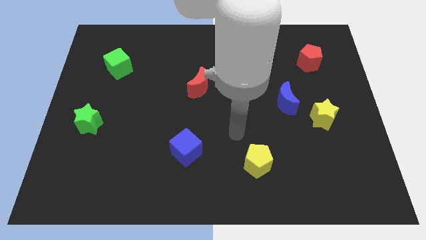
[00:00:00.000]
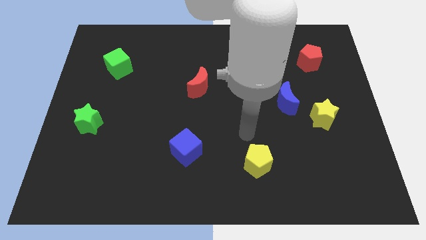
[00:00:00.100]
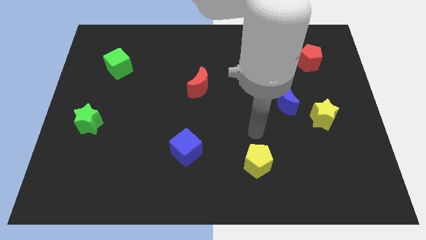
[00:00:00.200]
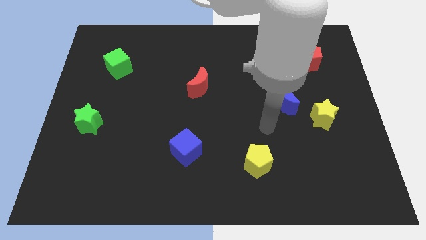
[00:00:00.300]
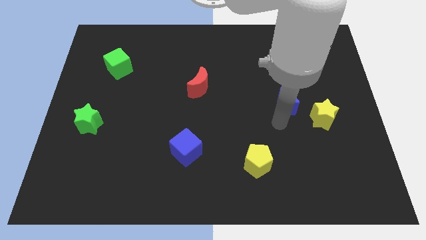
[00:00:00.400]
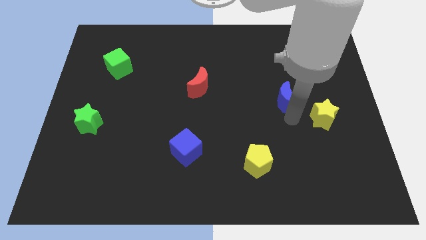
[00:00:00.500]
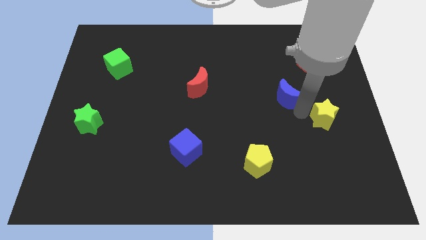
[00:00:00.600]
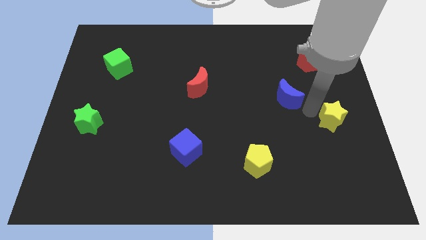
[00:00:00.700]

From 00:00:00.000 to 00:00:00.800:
move the blue moon away from the yellow star

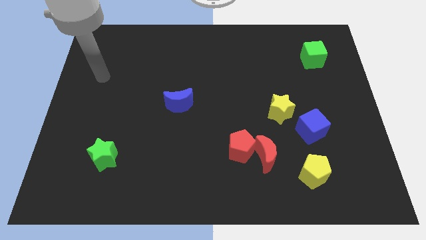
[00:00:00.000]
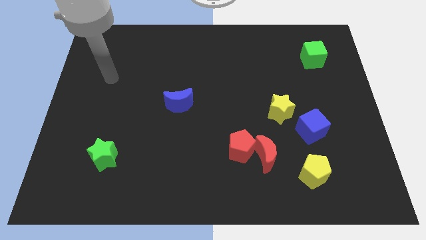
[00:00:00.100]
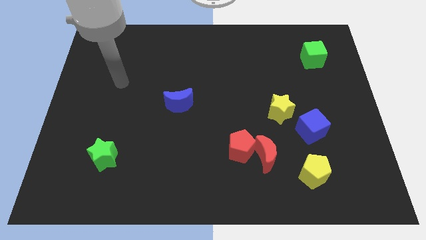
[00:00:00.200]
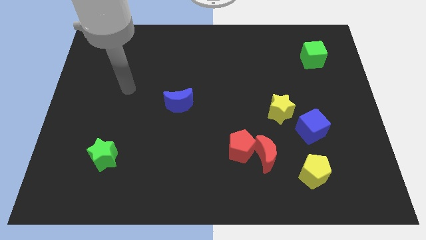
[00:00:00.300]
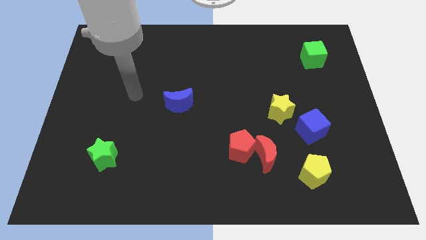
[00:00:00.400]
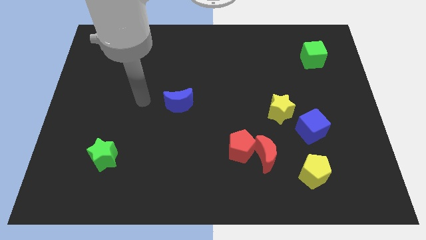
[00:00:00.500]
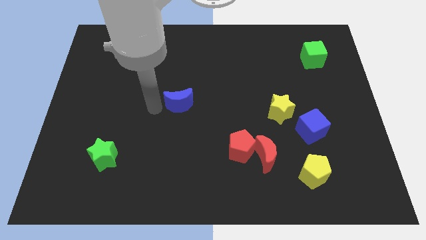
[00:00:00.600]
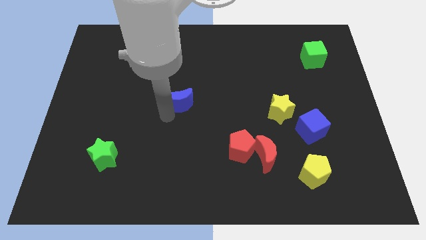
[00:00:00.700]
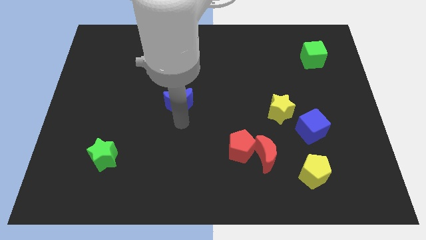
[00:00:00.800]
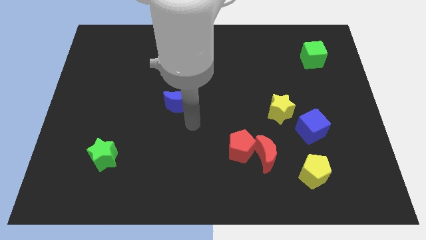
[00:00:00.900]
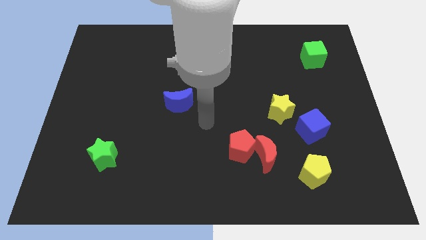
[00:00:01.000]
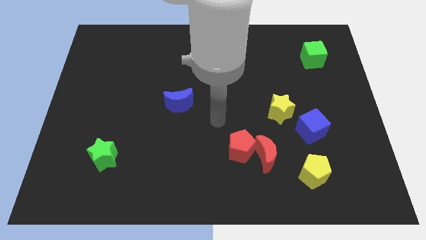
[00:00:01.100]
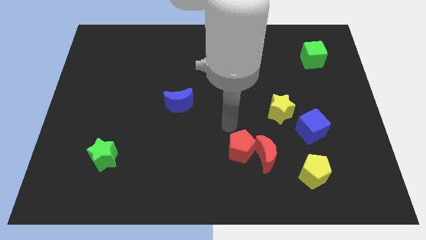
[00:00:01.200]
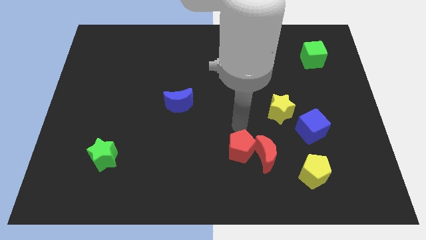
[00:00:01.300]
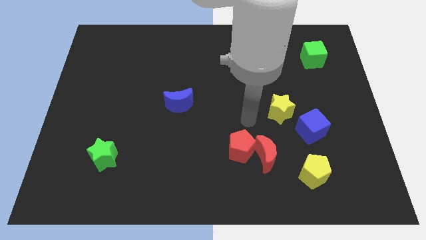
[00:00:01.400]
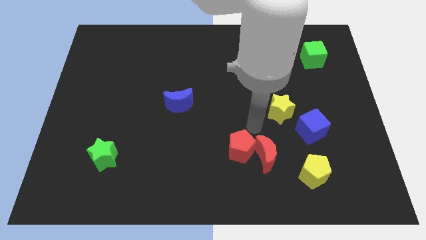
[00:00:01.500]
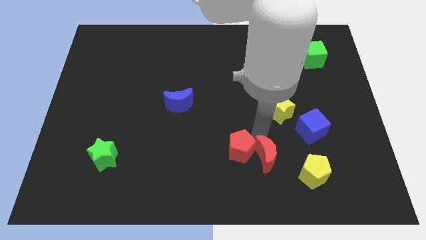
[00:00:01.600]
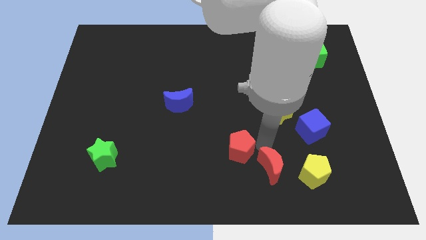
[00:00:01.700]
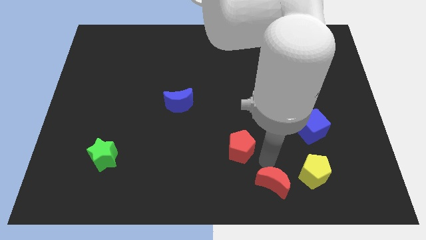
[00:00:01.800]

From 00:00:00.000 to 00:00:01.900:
separate the red pentagon from the red moon

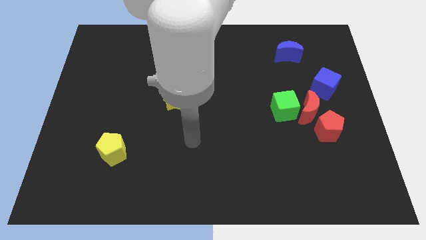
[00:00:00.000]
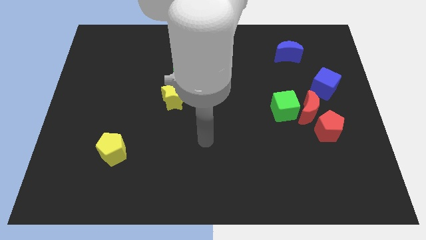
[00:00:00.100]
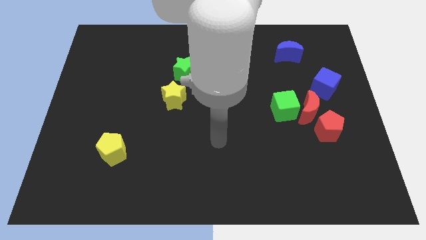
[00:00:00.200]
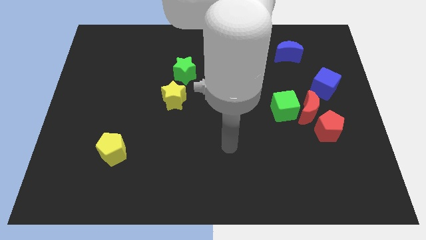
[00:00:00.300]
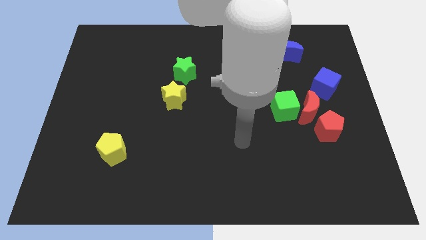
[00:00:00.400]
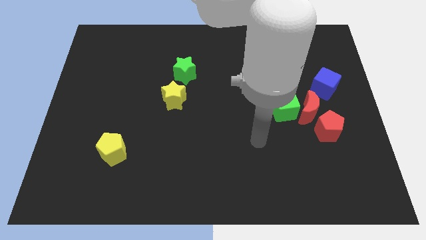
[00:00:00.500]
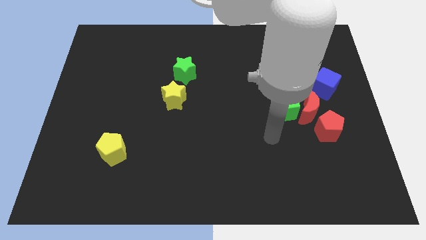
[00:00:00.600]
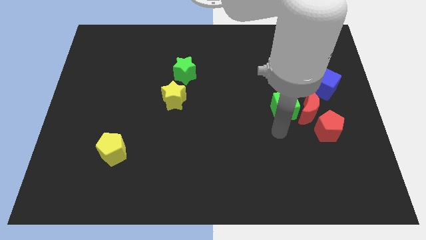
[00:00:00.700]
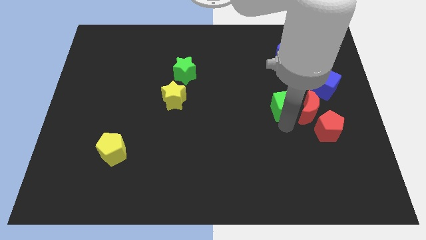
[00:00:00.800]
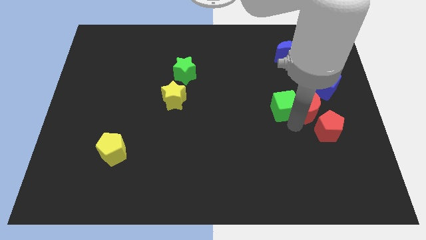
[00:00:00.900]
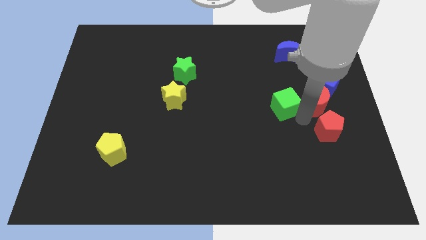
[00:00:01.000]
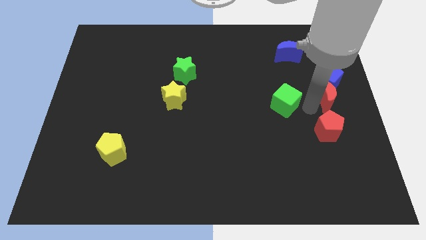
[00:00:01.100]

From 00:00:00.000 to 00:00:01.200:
pull the green cube apart from the red moon

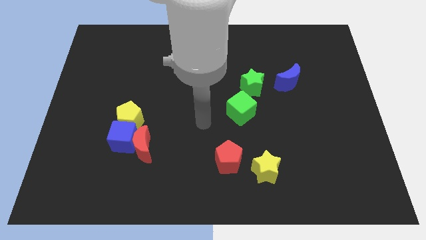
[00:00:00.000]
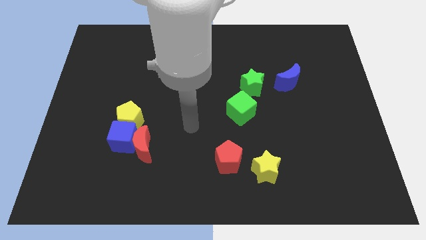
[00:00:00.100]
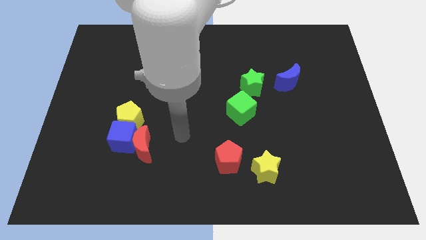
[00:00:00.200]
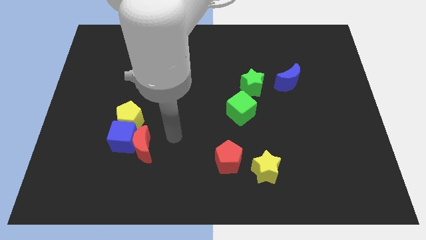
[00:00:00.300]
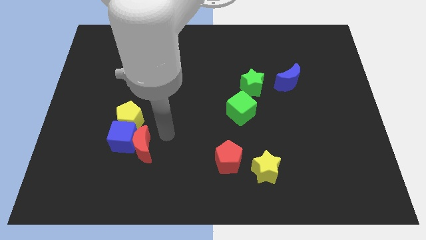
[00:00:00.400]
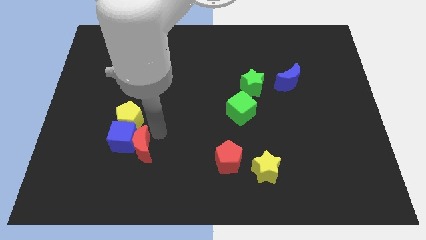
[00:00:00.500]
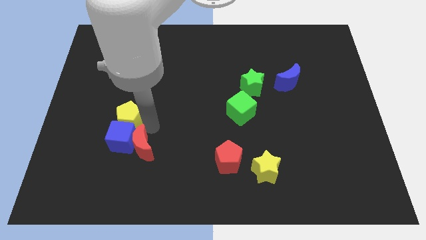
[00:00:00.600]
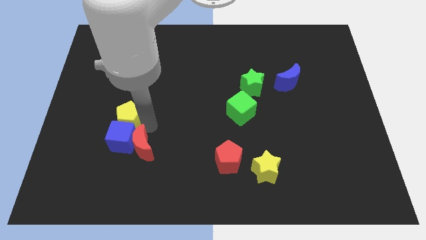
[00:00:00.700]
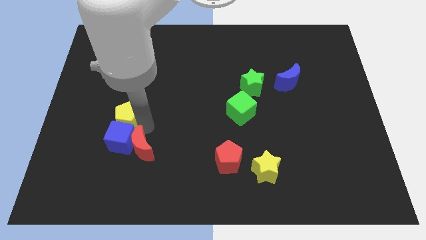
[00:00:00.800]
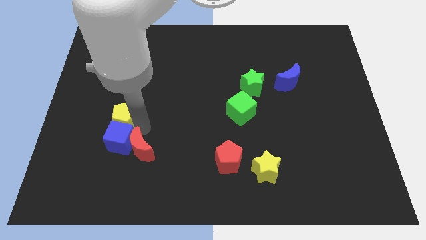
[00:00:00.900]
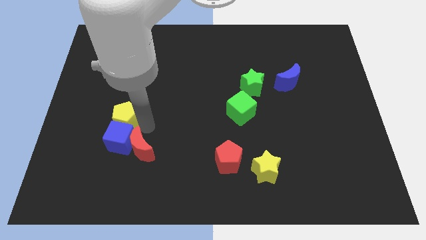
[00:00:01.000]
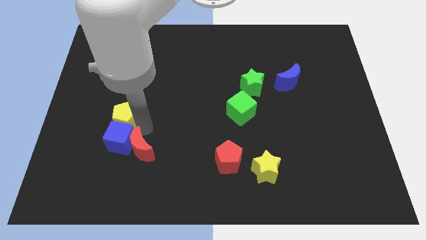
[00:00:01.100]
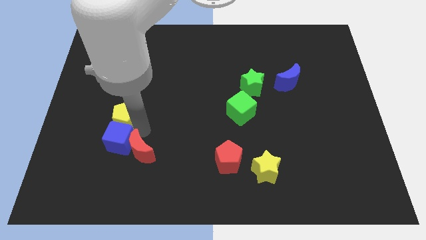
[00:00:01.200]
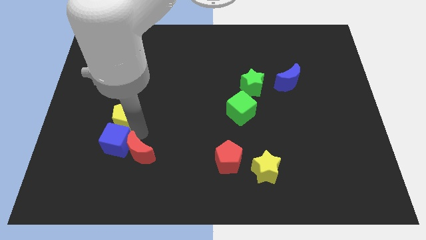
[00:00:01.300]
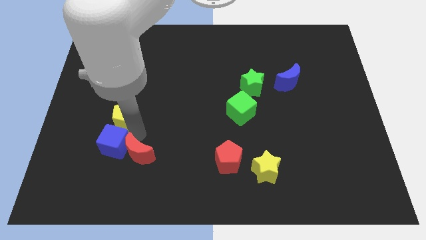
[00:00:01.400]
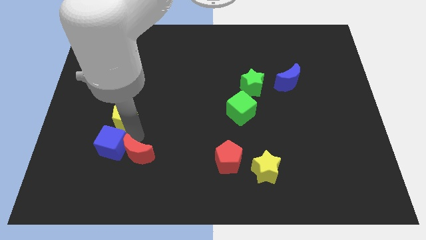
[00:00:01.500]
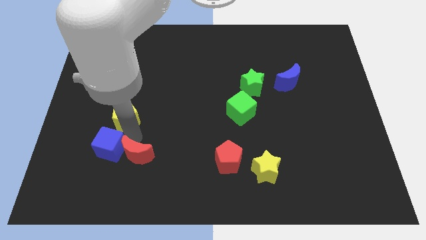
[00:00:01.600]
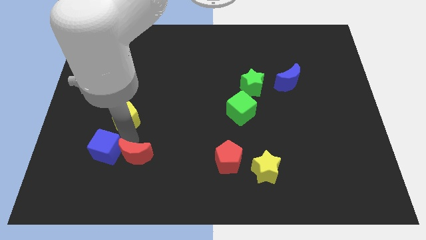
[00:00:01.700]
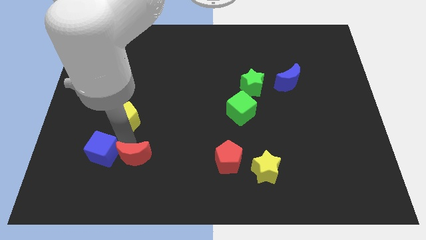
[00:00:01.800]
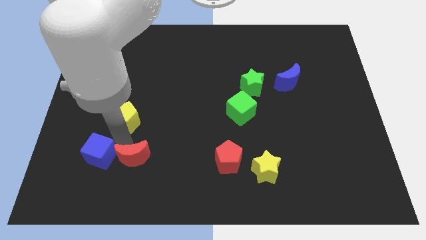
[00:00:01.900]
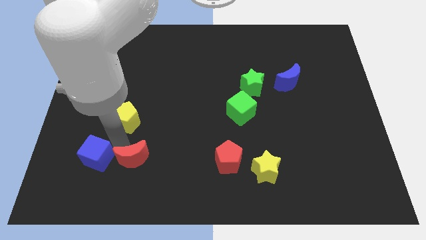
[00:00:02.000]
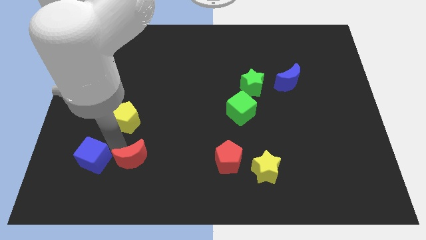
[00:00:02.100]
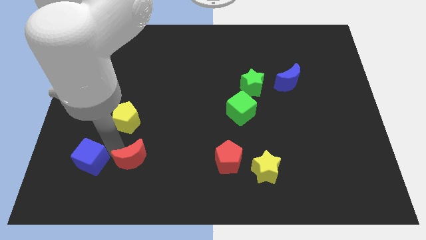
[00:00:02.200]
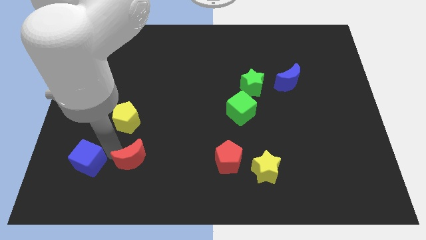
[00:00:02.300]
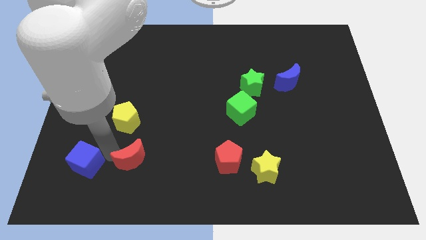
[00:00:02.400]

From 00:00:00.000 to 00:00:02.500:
separate the blue cube from the red moon and yellow pentagon

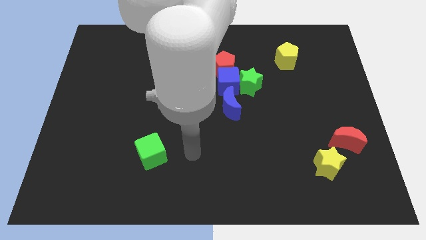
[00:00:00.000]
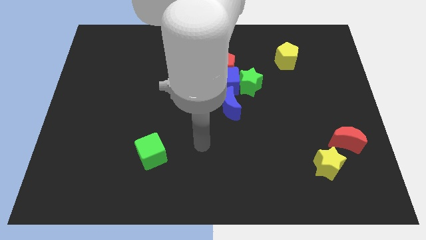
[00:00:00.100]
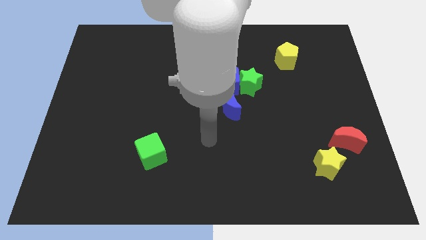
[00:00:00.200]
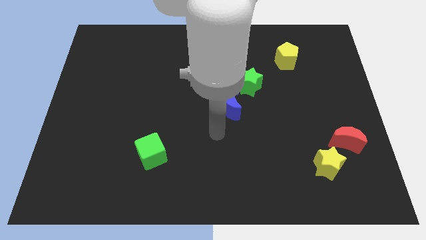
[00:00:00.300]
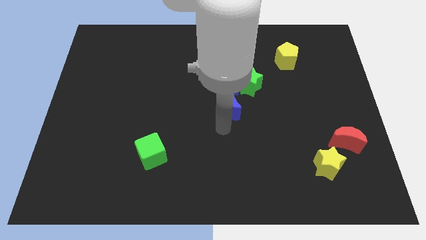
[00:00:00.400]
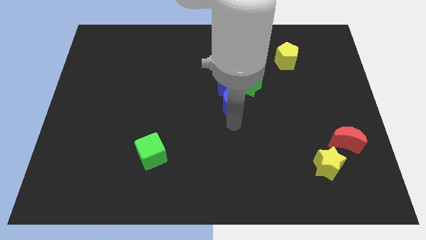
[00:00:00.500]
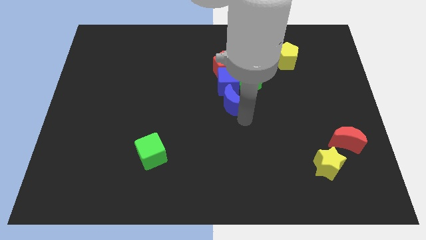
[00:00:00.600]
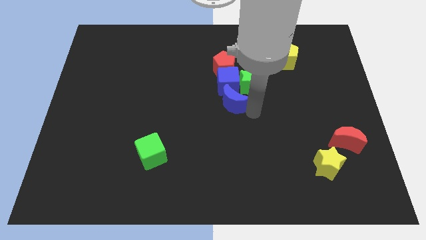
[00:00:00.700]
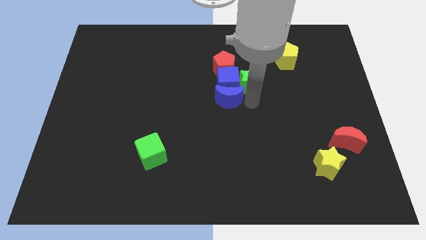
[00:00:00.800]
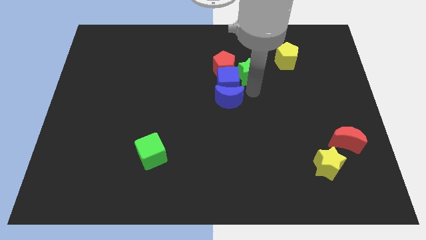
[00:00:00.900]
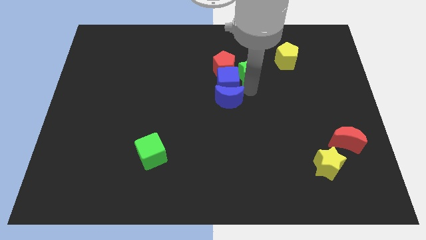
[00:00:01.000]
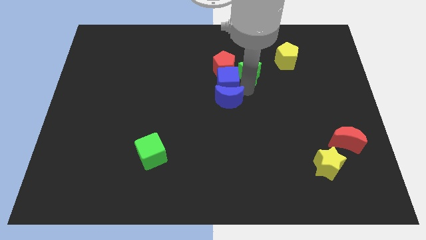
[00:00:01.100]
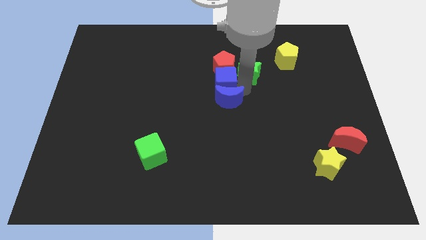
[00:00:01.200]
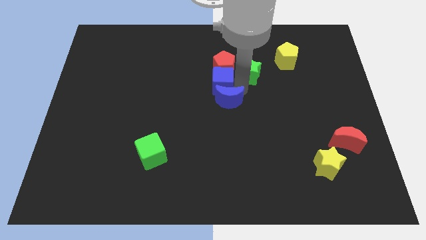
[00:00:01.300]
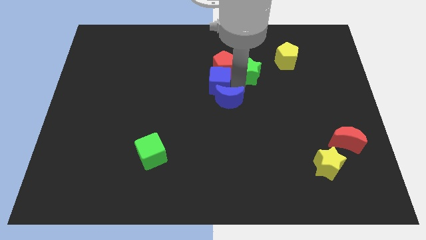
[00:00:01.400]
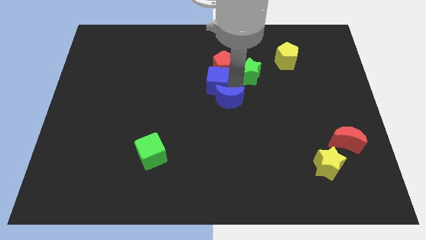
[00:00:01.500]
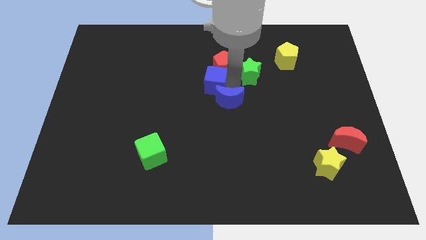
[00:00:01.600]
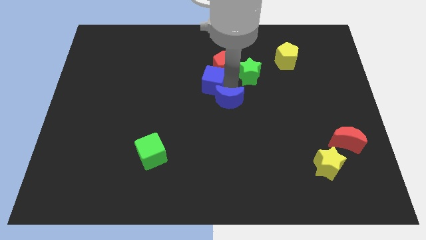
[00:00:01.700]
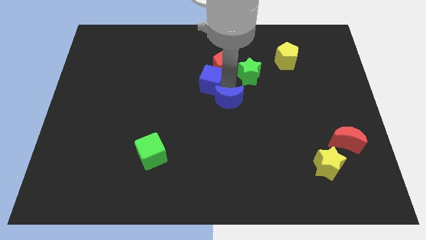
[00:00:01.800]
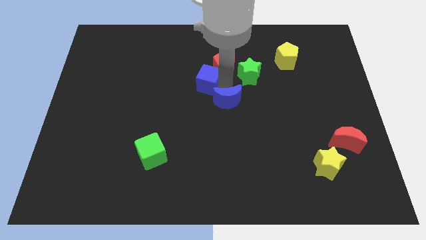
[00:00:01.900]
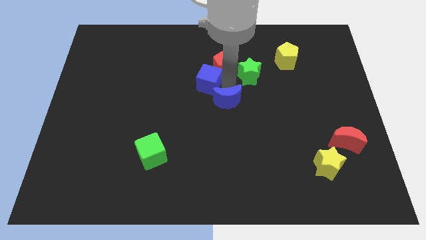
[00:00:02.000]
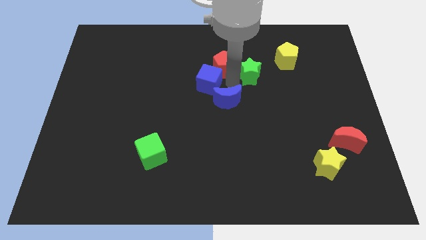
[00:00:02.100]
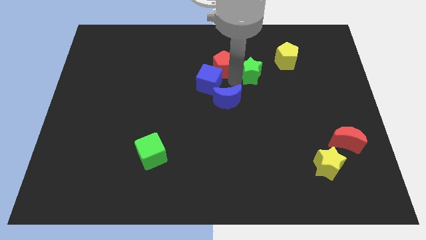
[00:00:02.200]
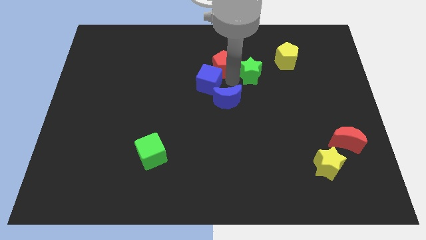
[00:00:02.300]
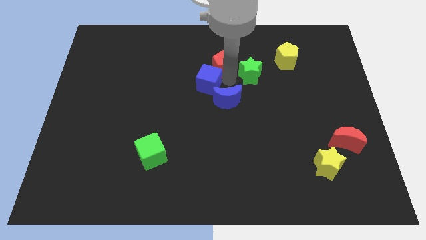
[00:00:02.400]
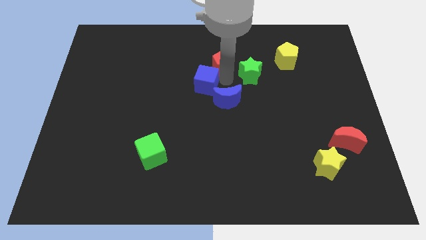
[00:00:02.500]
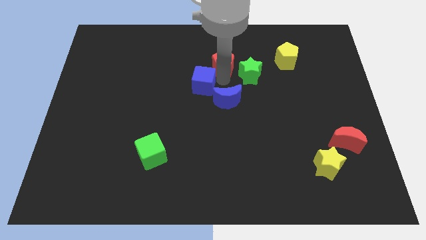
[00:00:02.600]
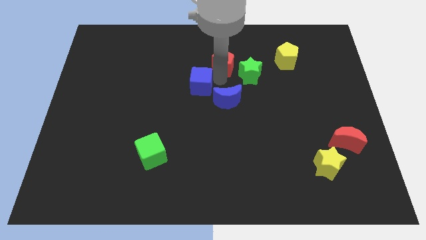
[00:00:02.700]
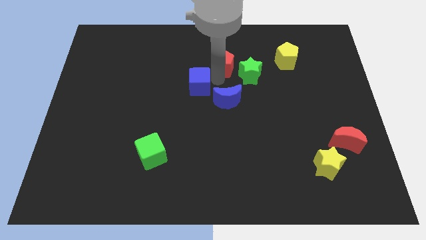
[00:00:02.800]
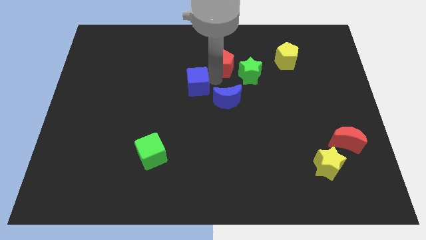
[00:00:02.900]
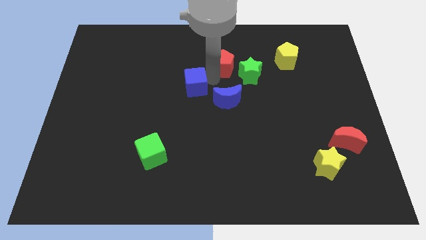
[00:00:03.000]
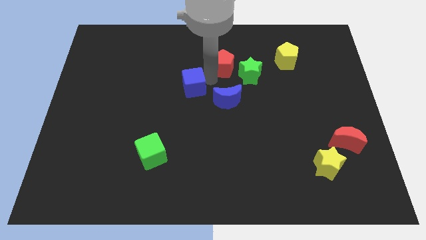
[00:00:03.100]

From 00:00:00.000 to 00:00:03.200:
pull the blue cube apart from the group of blocks
